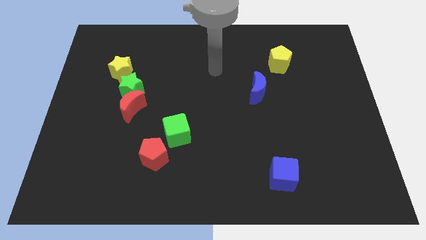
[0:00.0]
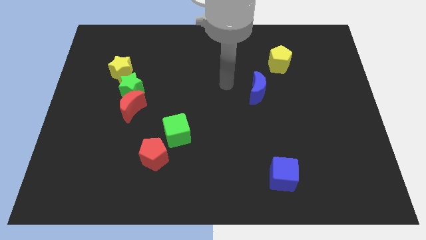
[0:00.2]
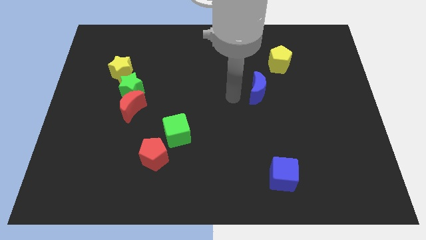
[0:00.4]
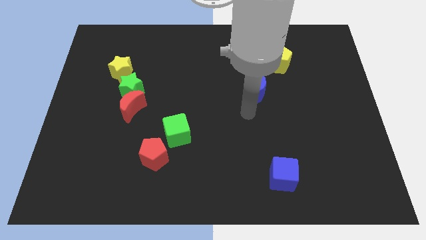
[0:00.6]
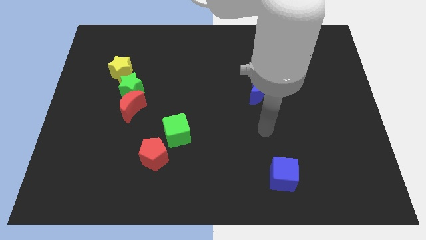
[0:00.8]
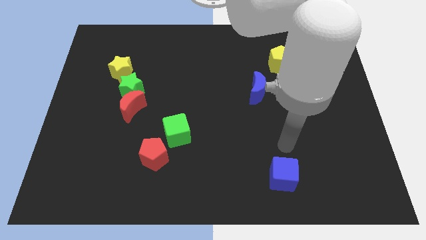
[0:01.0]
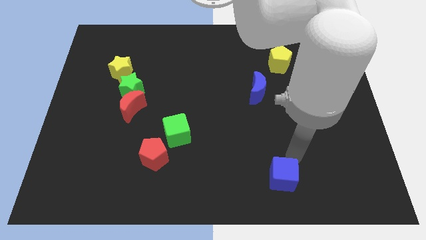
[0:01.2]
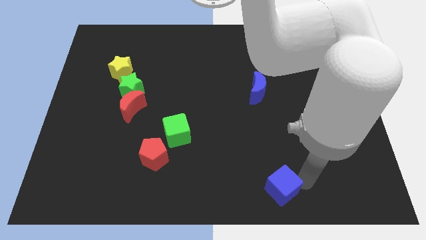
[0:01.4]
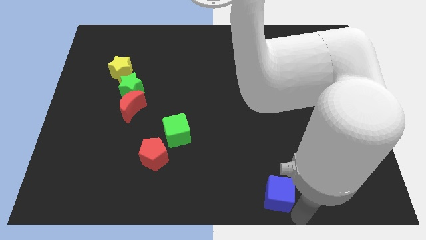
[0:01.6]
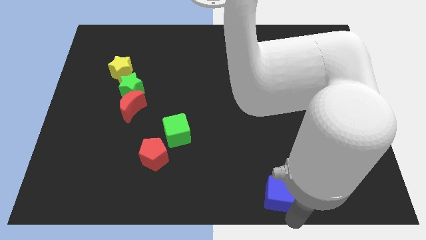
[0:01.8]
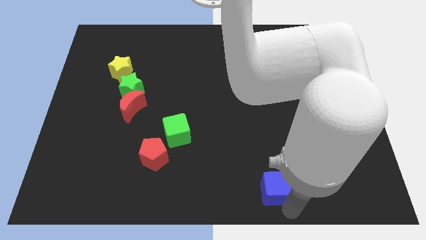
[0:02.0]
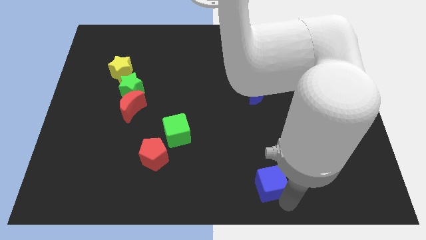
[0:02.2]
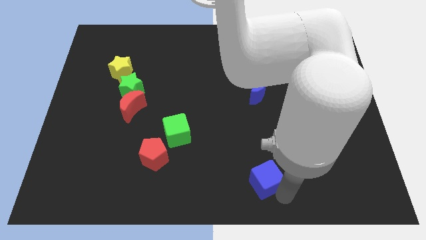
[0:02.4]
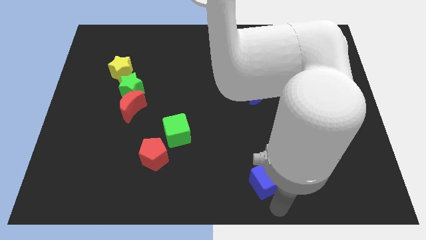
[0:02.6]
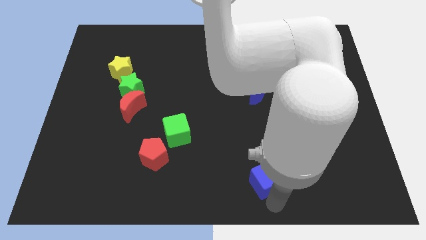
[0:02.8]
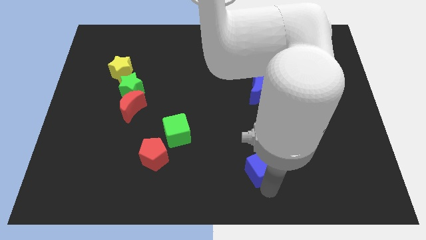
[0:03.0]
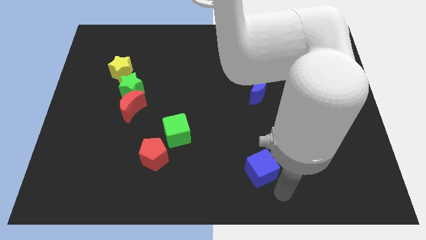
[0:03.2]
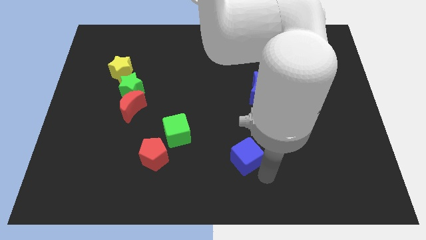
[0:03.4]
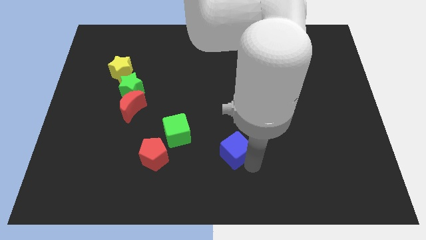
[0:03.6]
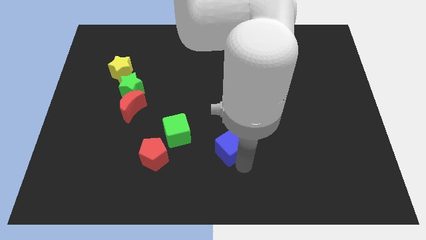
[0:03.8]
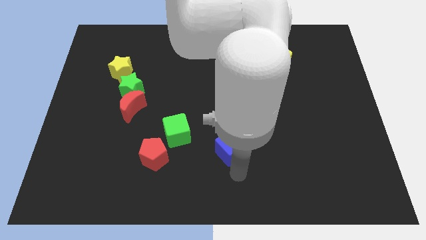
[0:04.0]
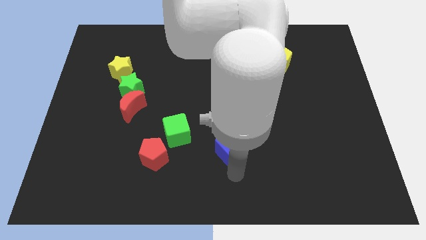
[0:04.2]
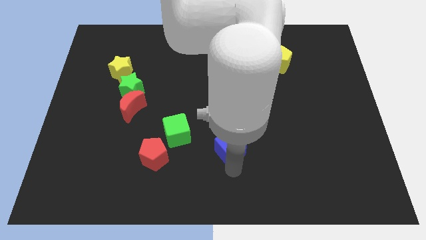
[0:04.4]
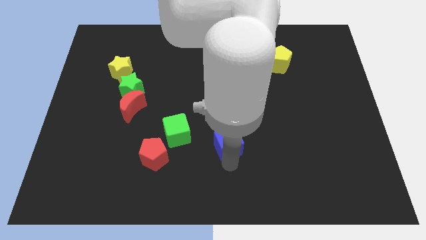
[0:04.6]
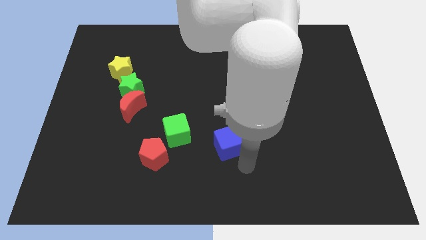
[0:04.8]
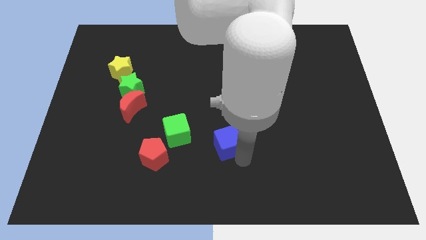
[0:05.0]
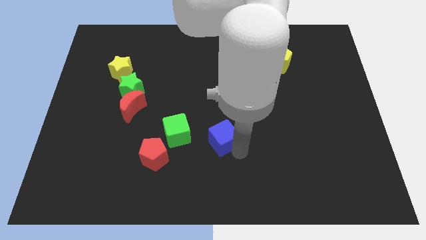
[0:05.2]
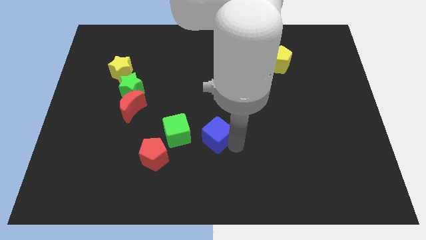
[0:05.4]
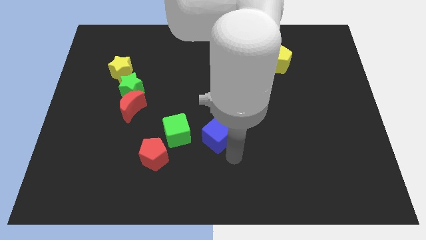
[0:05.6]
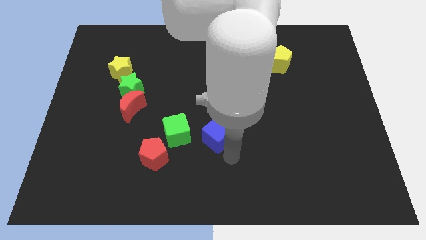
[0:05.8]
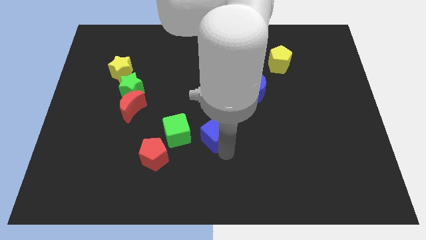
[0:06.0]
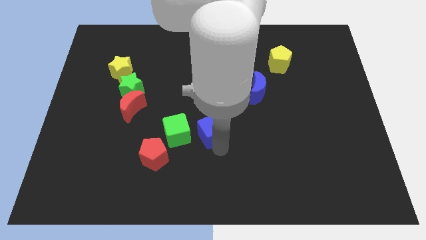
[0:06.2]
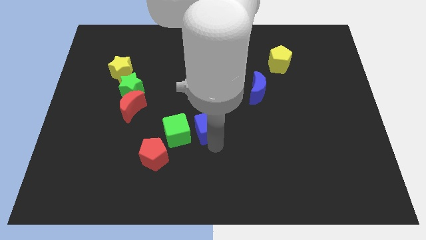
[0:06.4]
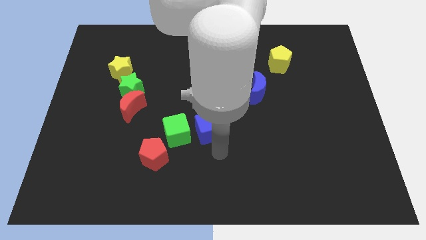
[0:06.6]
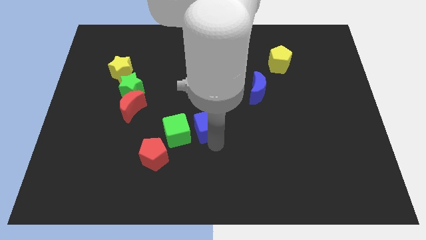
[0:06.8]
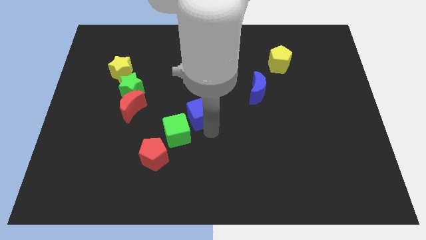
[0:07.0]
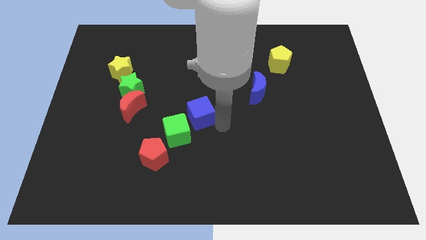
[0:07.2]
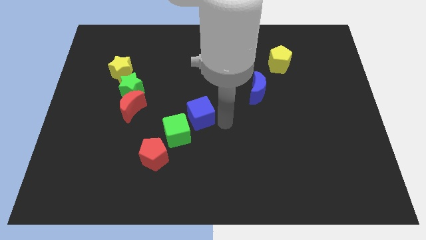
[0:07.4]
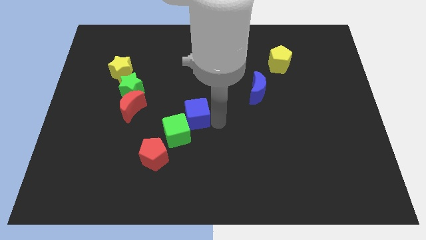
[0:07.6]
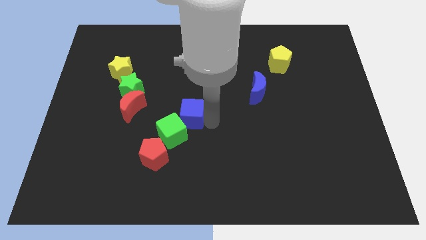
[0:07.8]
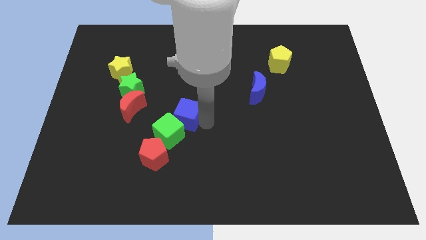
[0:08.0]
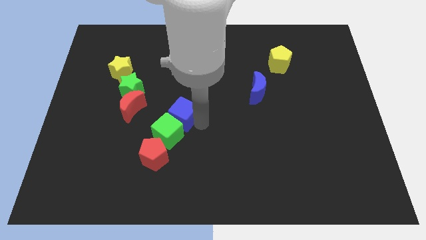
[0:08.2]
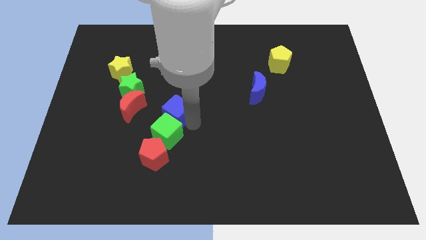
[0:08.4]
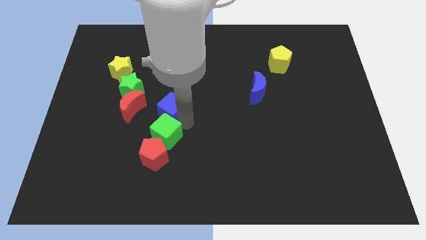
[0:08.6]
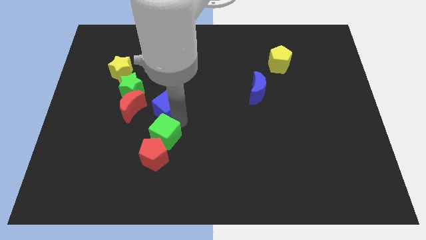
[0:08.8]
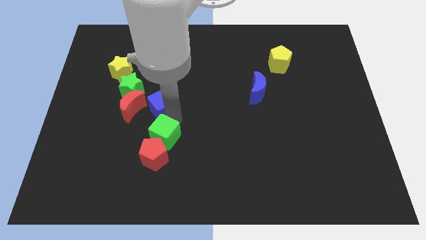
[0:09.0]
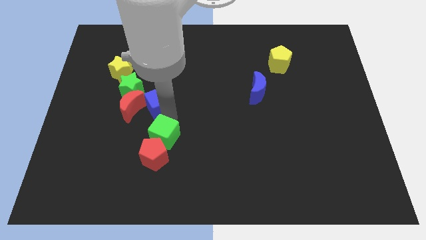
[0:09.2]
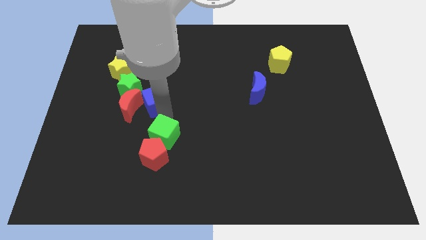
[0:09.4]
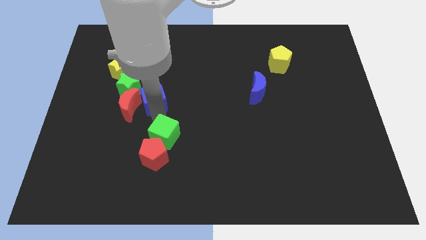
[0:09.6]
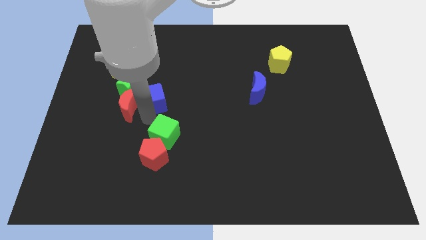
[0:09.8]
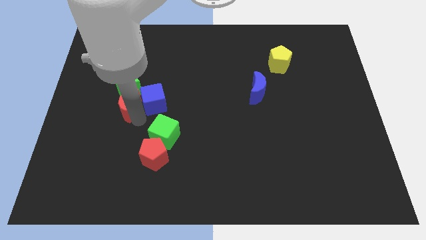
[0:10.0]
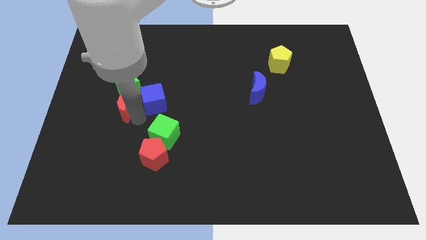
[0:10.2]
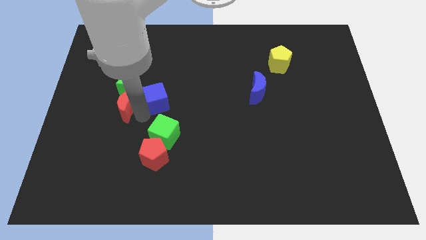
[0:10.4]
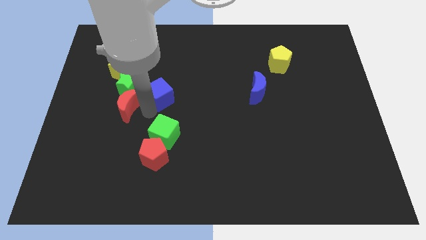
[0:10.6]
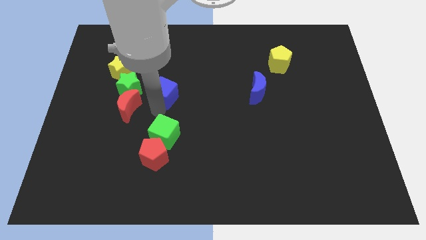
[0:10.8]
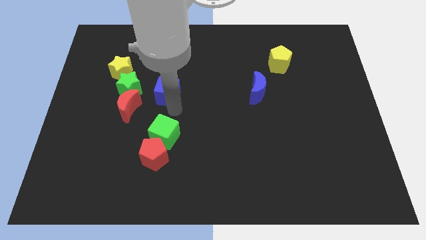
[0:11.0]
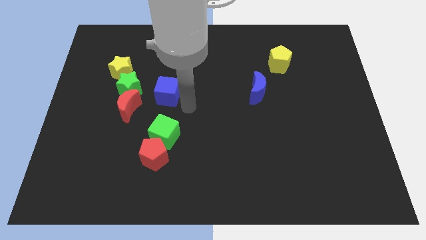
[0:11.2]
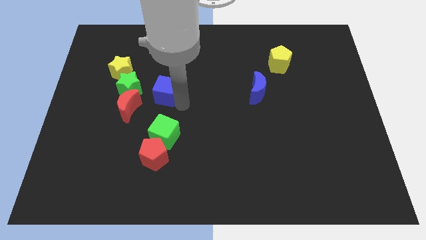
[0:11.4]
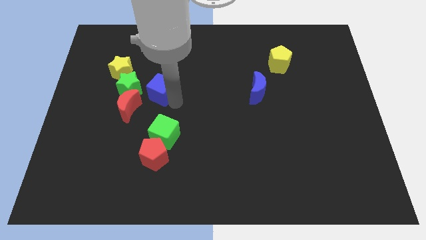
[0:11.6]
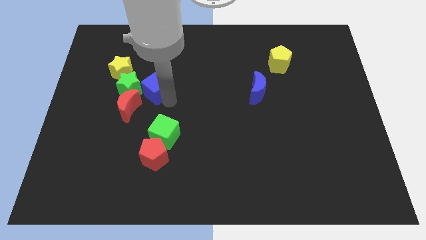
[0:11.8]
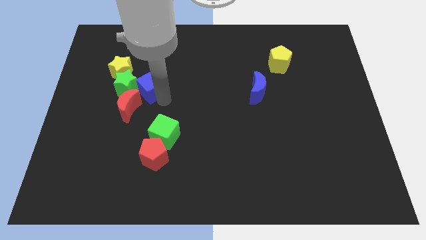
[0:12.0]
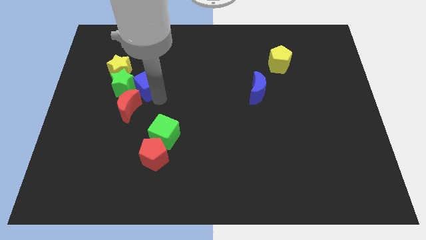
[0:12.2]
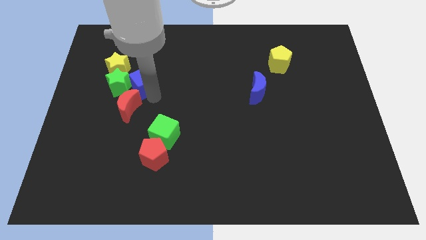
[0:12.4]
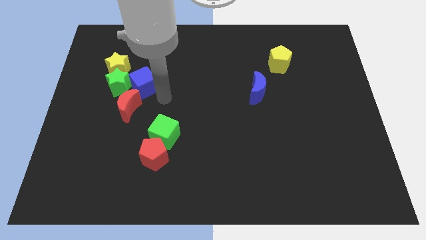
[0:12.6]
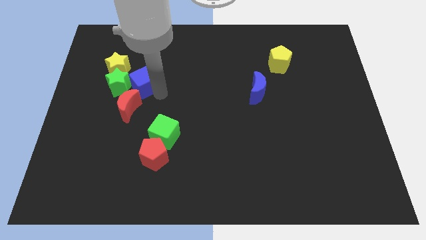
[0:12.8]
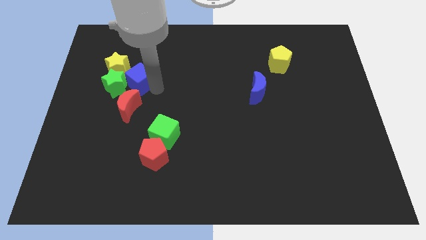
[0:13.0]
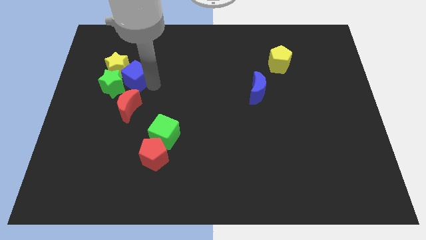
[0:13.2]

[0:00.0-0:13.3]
push the blue cube towards the yellow star
